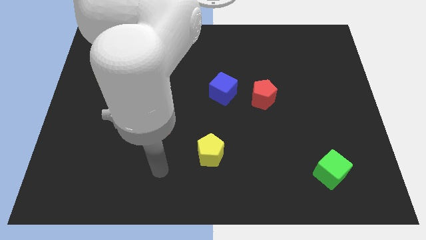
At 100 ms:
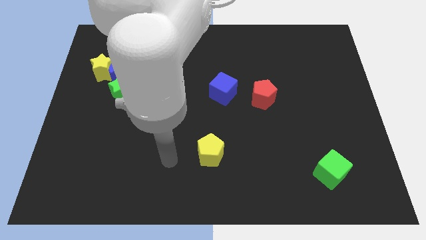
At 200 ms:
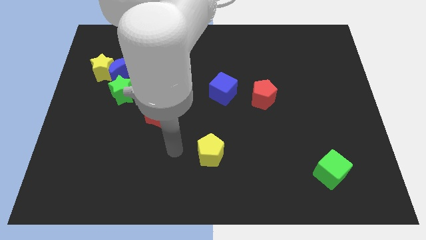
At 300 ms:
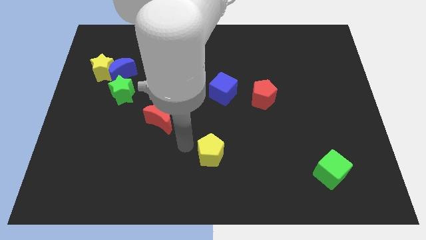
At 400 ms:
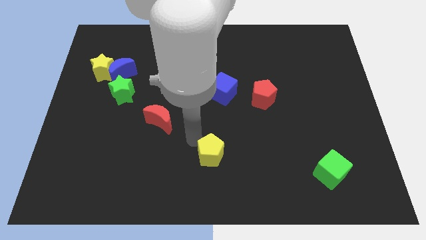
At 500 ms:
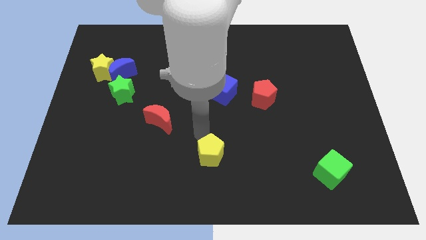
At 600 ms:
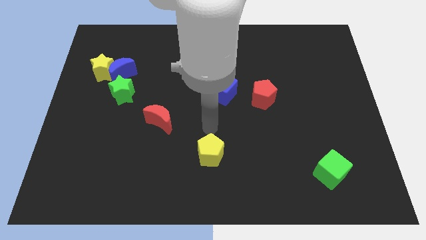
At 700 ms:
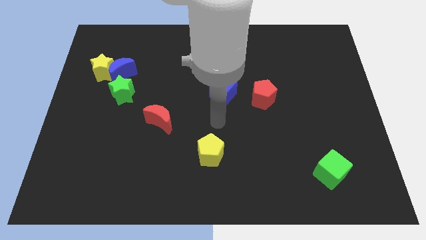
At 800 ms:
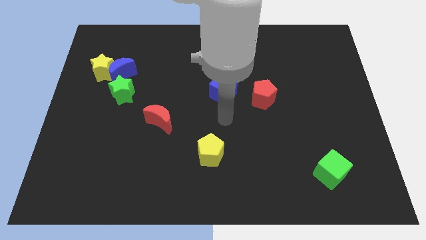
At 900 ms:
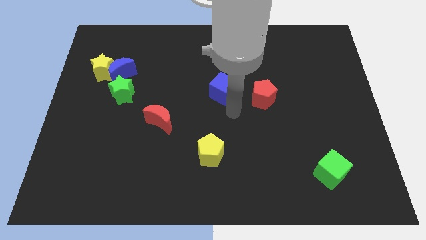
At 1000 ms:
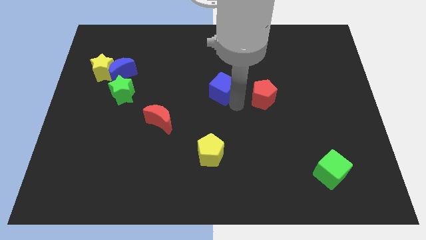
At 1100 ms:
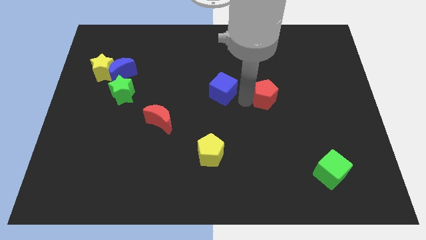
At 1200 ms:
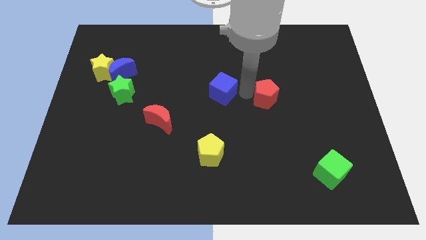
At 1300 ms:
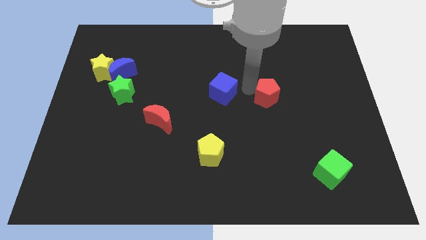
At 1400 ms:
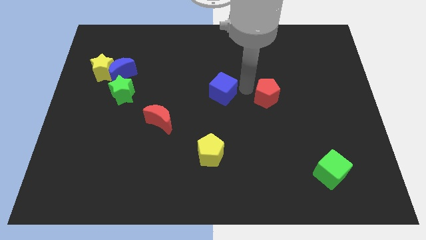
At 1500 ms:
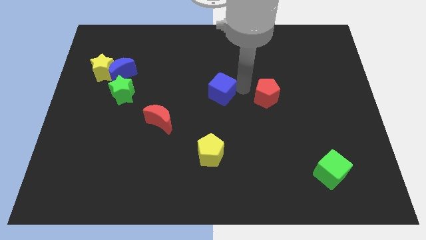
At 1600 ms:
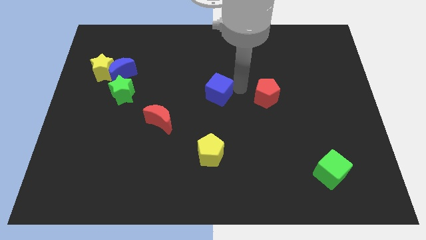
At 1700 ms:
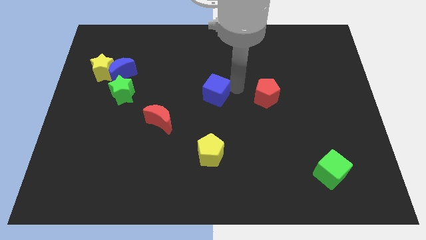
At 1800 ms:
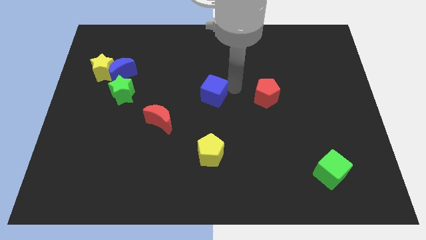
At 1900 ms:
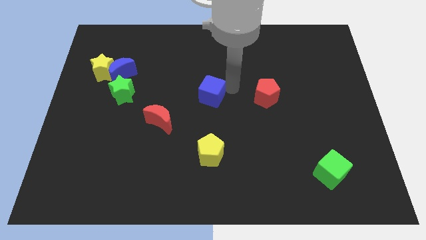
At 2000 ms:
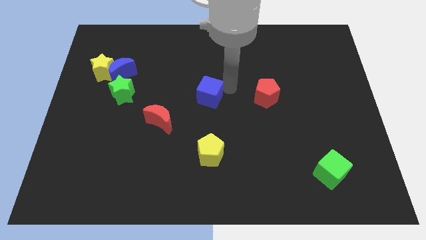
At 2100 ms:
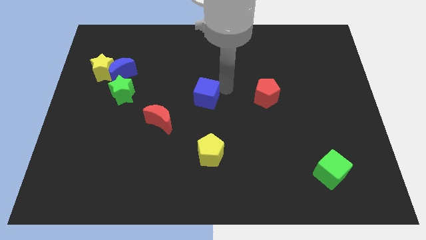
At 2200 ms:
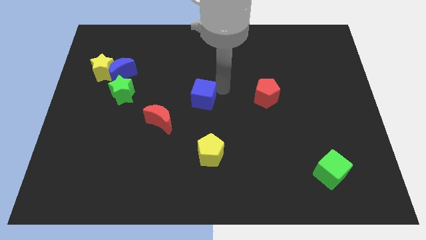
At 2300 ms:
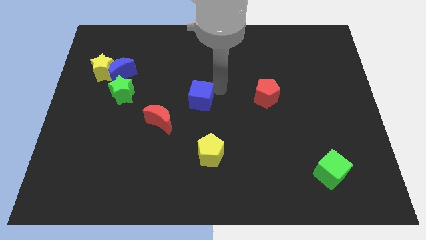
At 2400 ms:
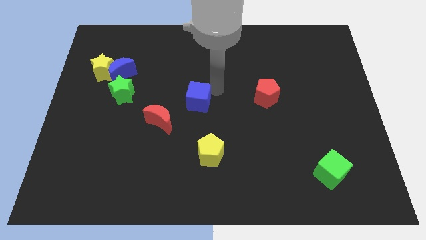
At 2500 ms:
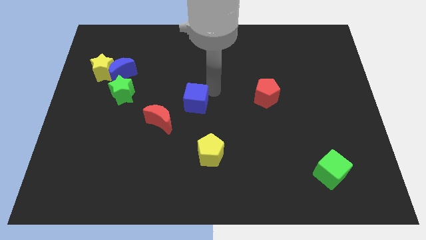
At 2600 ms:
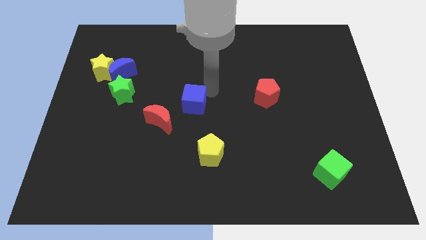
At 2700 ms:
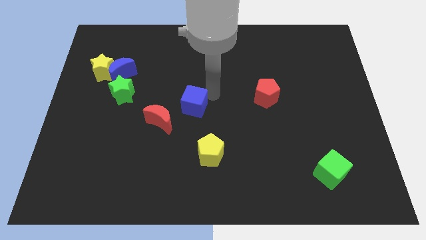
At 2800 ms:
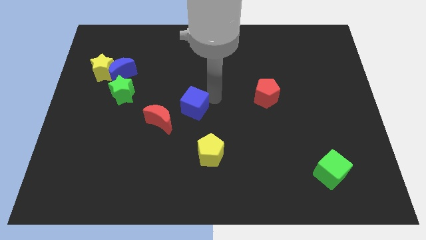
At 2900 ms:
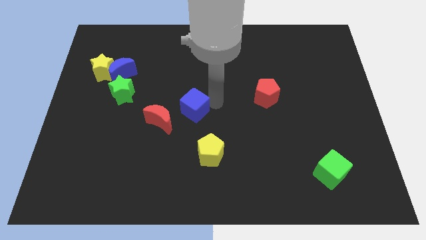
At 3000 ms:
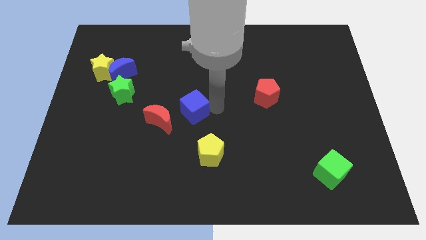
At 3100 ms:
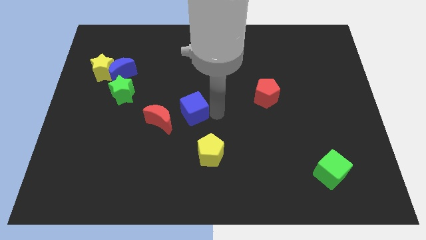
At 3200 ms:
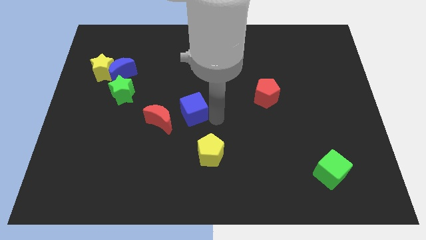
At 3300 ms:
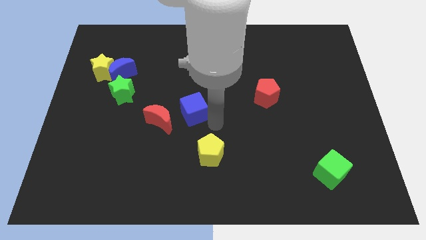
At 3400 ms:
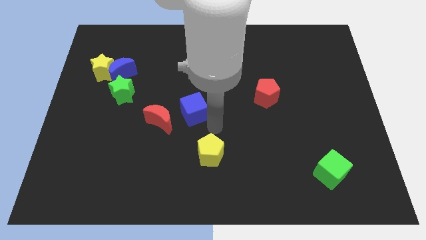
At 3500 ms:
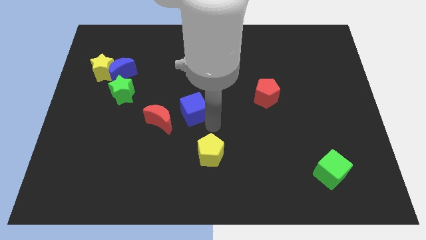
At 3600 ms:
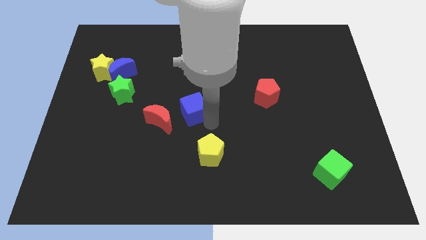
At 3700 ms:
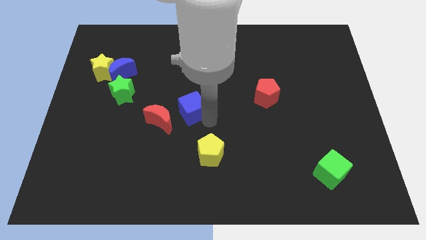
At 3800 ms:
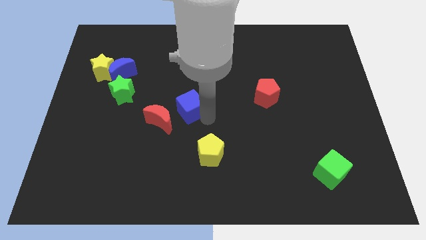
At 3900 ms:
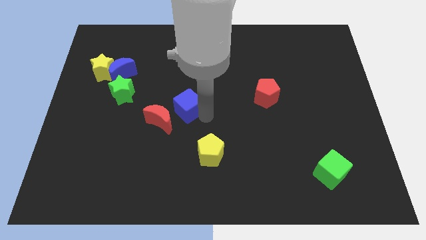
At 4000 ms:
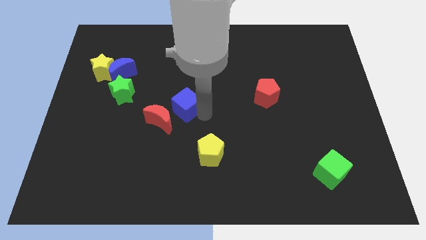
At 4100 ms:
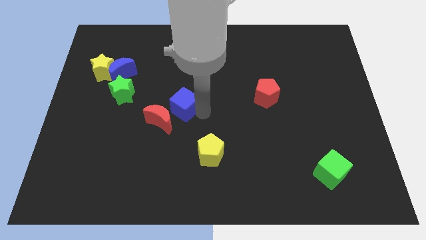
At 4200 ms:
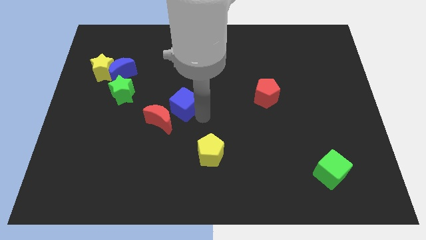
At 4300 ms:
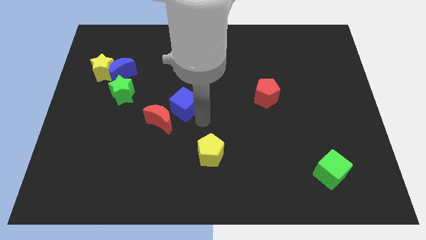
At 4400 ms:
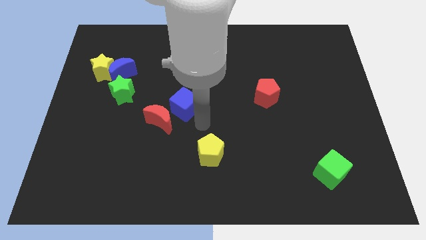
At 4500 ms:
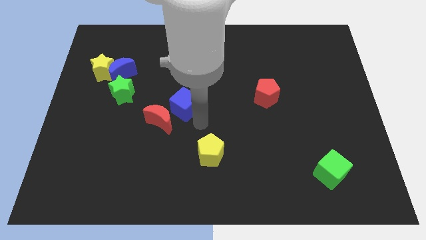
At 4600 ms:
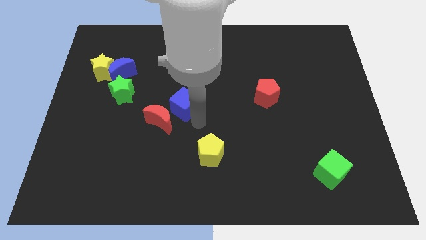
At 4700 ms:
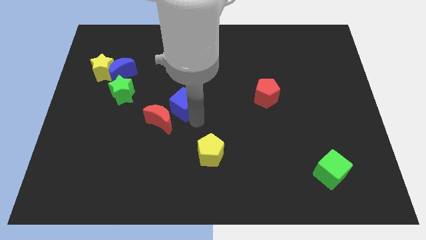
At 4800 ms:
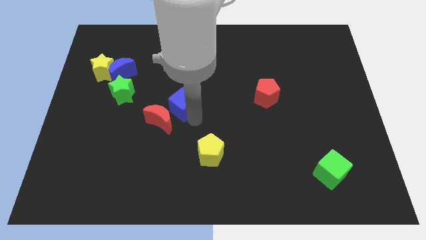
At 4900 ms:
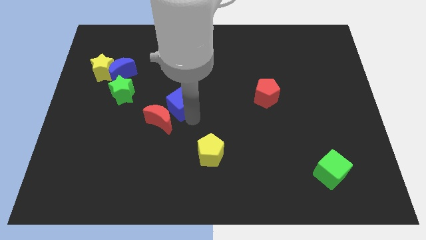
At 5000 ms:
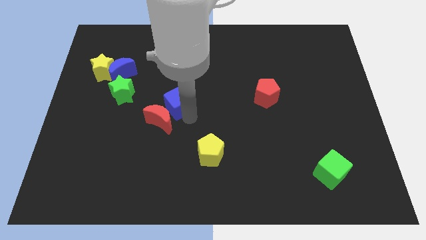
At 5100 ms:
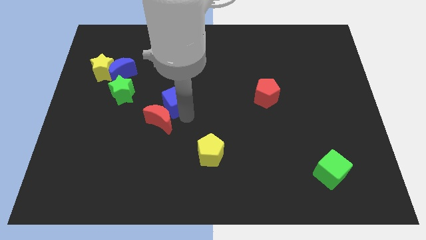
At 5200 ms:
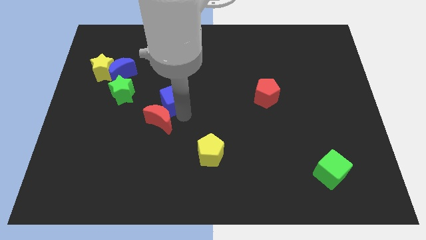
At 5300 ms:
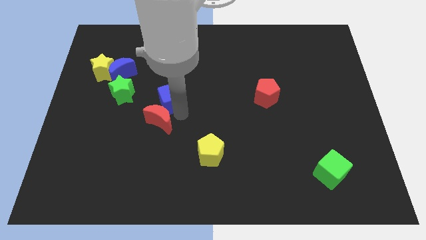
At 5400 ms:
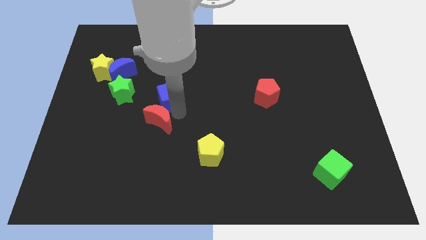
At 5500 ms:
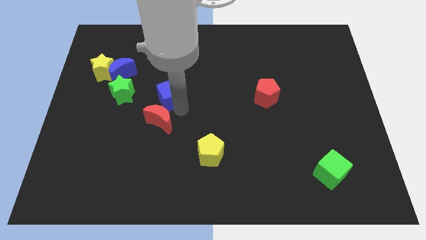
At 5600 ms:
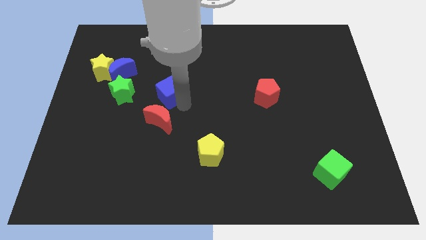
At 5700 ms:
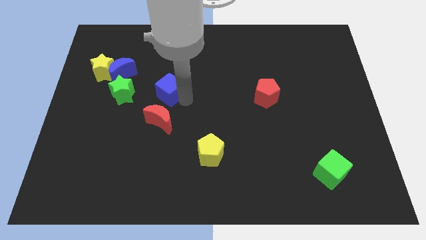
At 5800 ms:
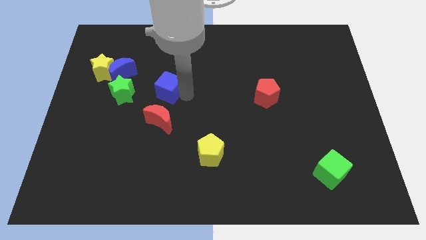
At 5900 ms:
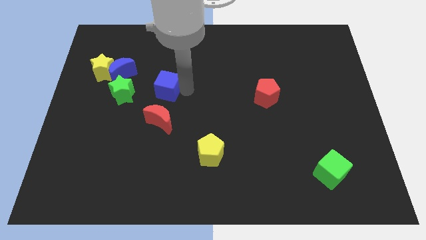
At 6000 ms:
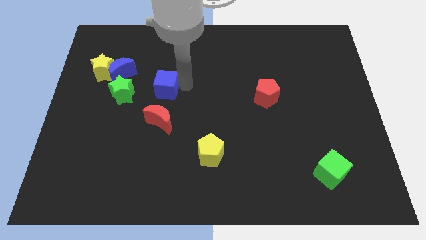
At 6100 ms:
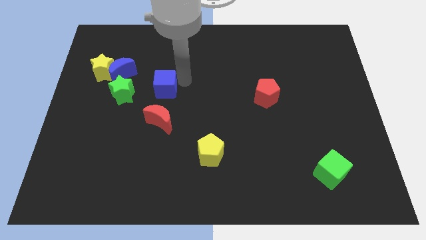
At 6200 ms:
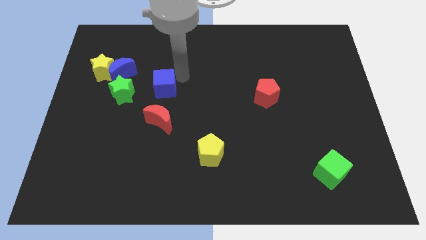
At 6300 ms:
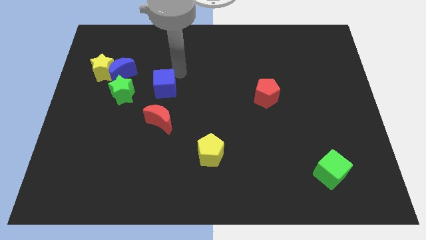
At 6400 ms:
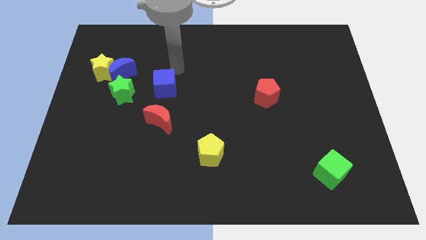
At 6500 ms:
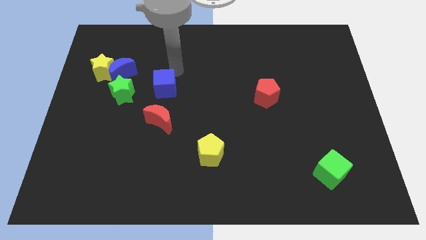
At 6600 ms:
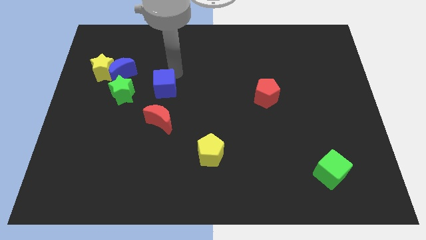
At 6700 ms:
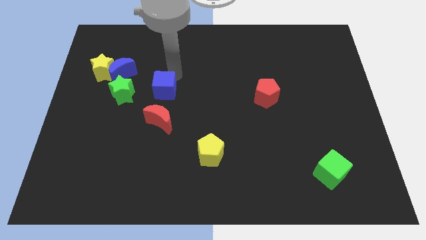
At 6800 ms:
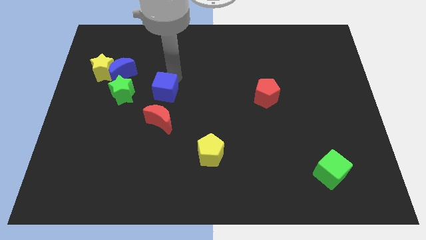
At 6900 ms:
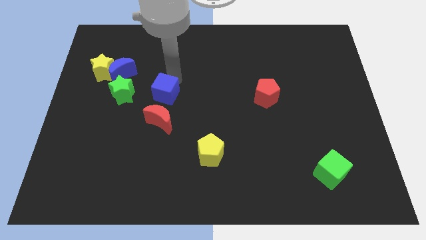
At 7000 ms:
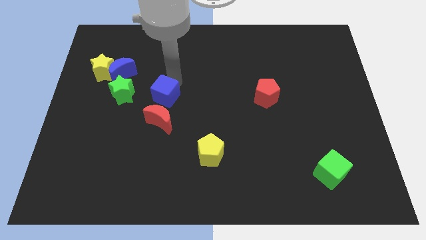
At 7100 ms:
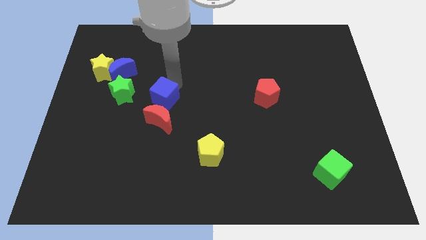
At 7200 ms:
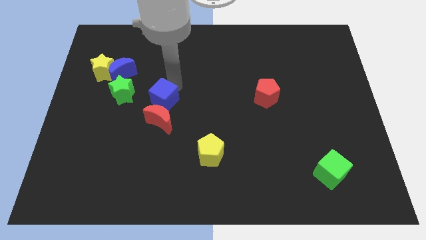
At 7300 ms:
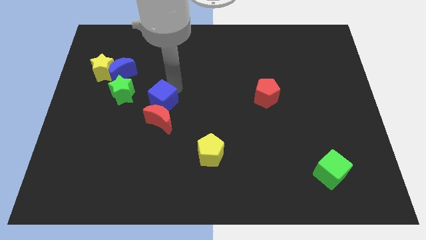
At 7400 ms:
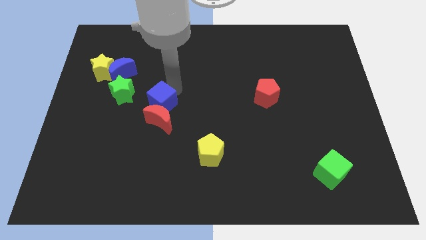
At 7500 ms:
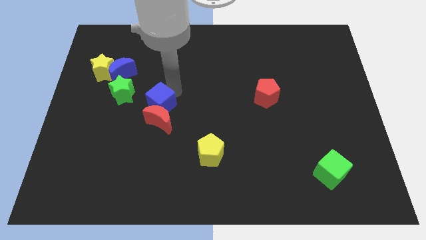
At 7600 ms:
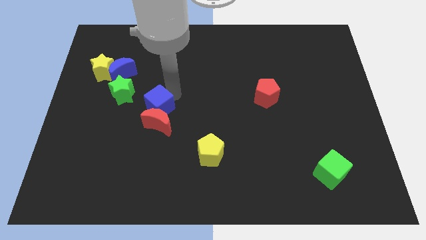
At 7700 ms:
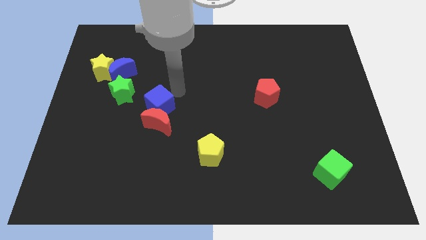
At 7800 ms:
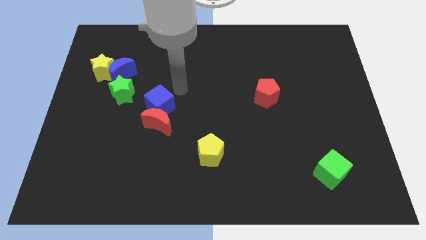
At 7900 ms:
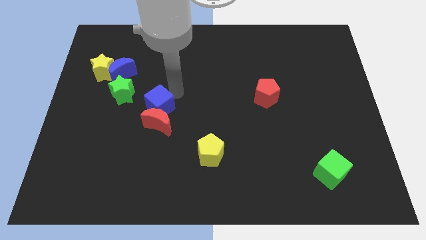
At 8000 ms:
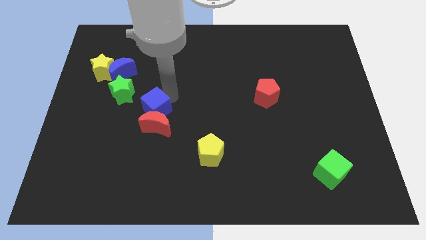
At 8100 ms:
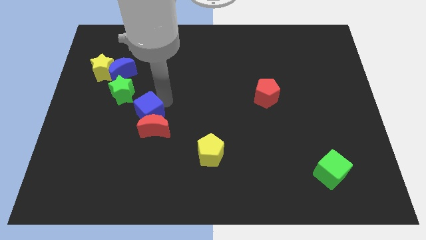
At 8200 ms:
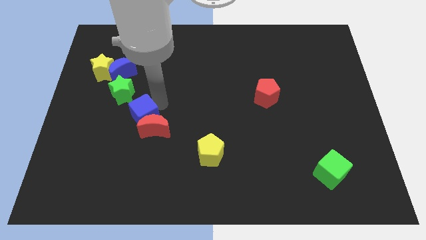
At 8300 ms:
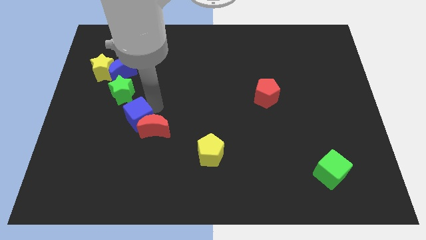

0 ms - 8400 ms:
move the blue cube below the green star
